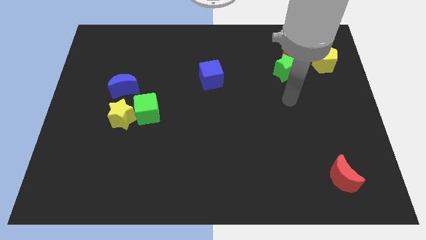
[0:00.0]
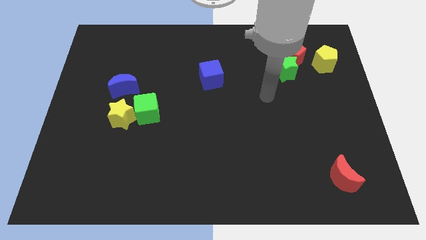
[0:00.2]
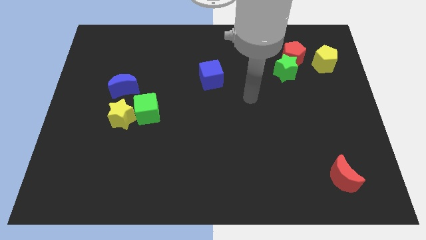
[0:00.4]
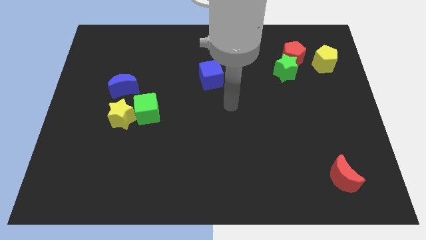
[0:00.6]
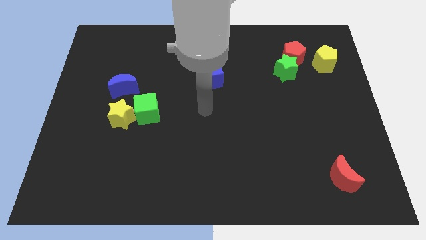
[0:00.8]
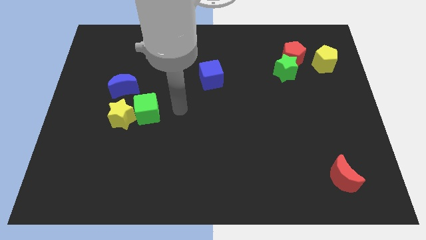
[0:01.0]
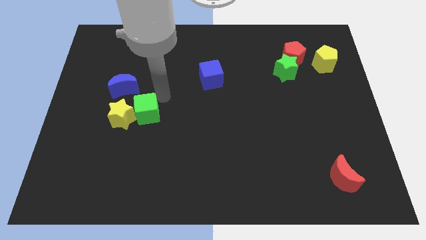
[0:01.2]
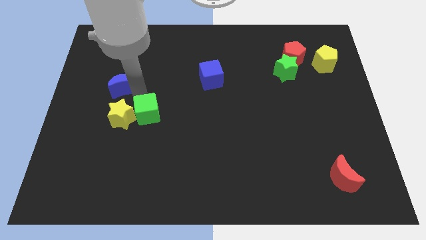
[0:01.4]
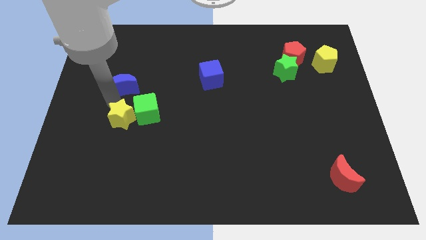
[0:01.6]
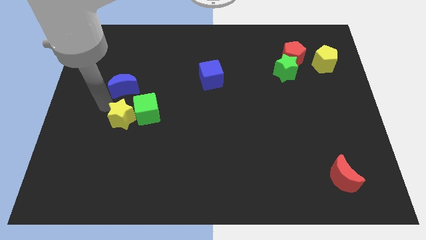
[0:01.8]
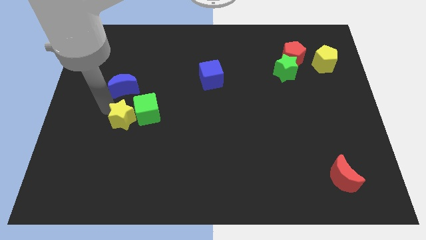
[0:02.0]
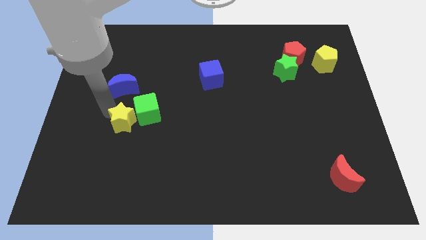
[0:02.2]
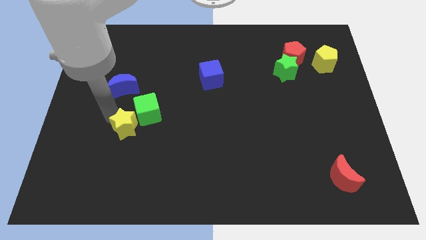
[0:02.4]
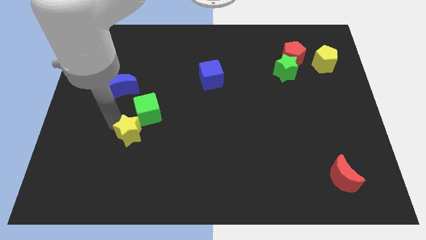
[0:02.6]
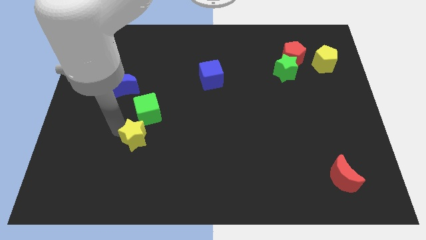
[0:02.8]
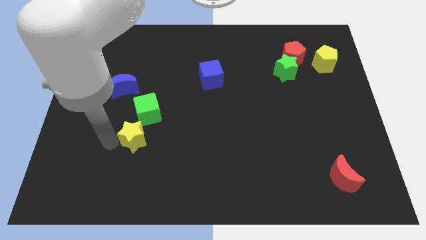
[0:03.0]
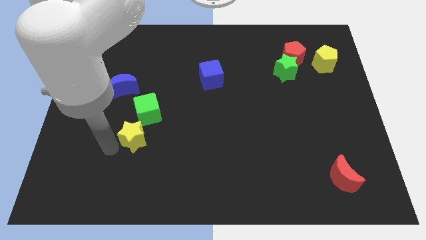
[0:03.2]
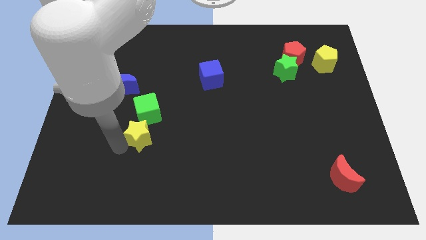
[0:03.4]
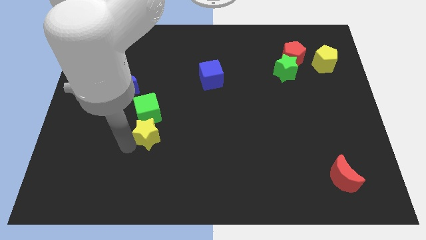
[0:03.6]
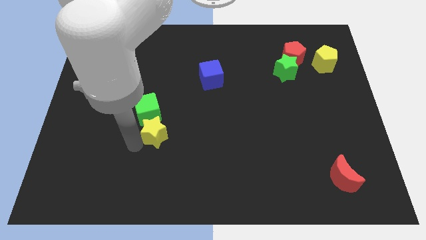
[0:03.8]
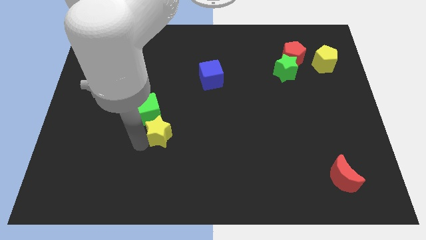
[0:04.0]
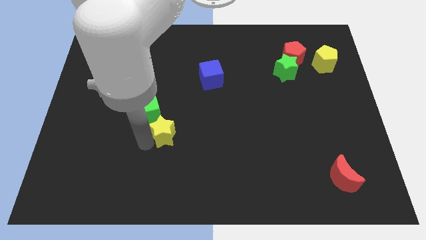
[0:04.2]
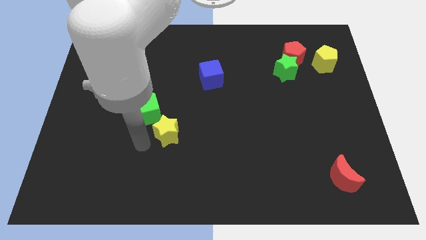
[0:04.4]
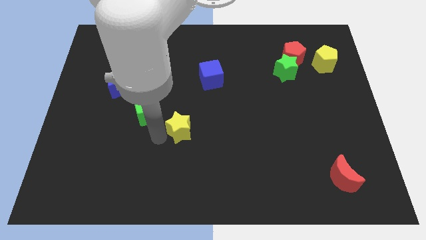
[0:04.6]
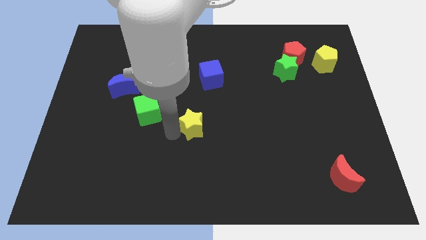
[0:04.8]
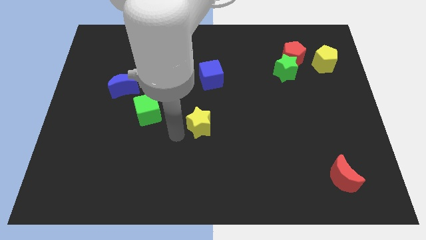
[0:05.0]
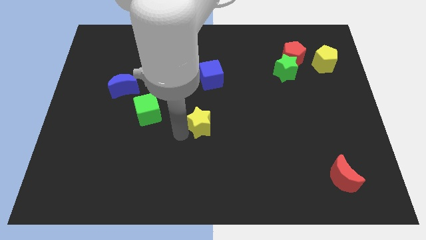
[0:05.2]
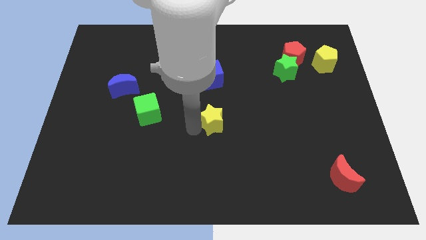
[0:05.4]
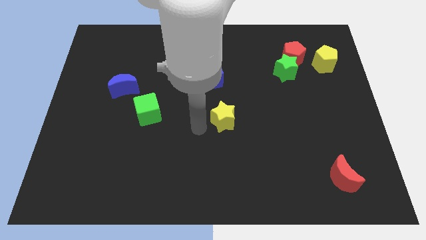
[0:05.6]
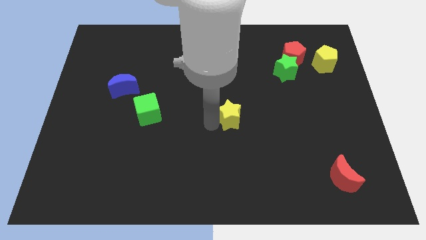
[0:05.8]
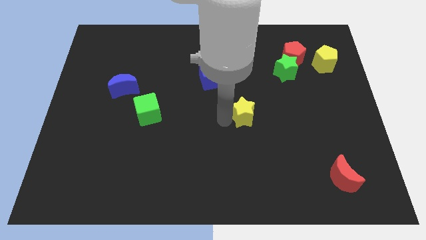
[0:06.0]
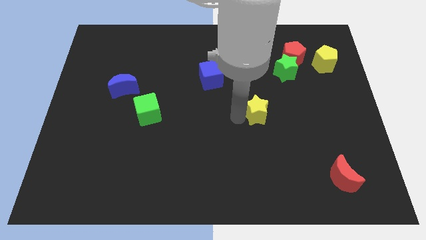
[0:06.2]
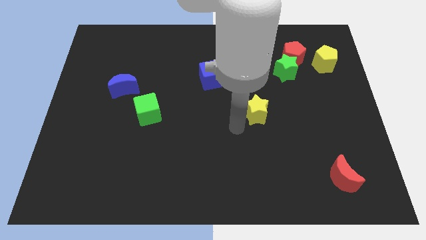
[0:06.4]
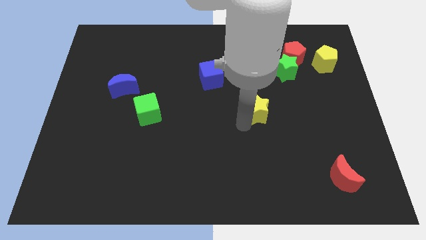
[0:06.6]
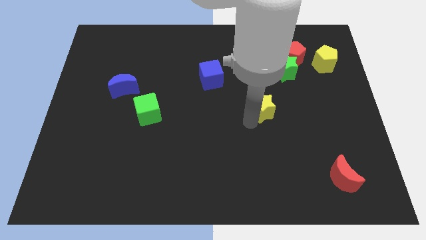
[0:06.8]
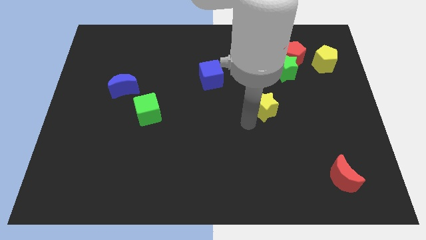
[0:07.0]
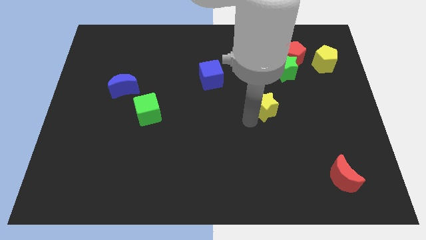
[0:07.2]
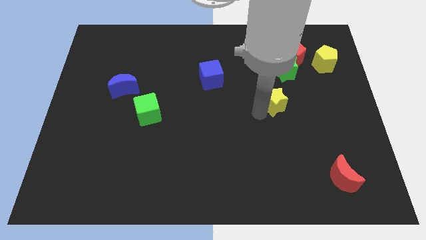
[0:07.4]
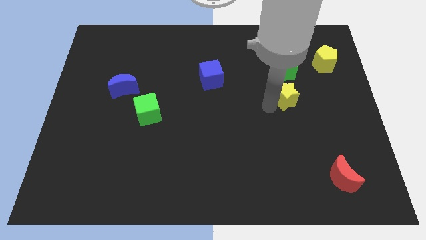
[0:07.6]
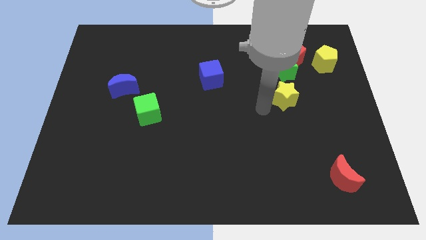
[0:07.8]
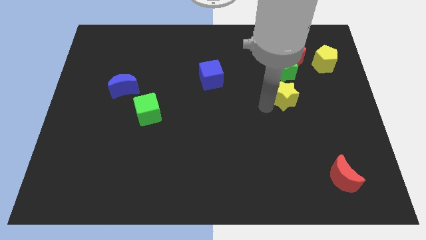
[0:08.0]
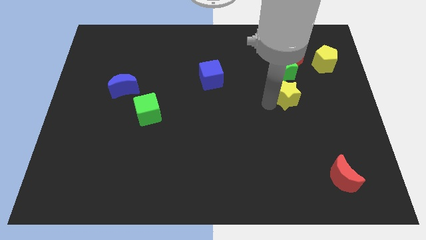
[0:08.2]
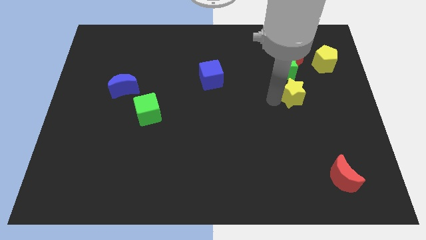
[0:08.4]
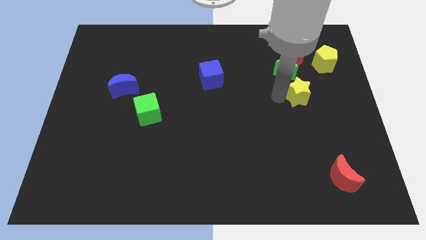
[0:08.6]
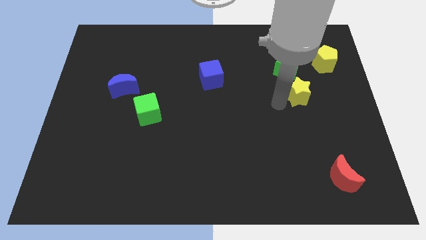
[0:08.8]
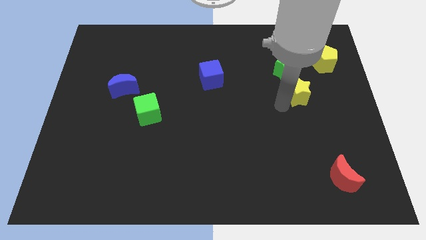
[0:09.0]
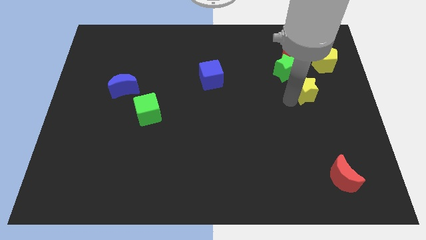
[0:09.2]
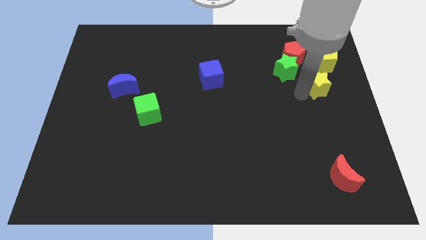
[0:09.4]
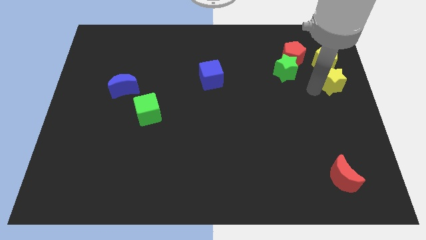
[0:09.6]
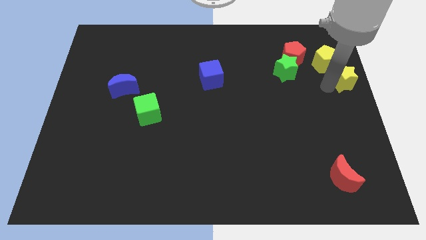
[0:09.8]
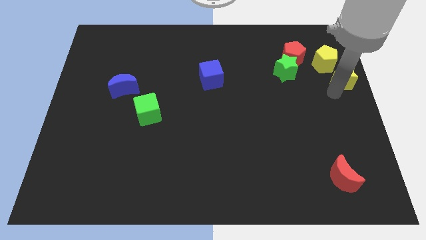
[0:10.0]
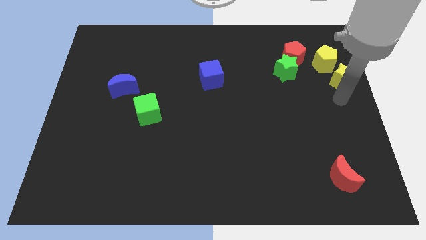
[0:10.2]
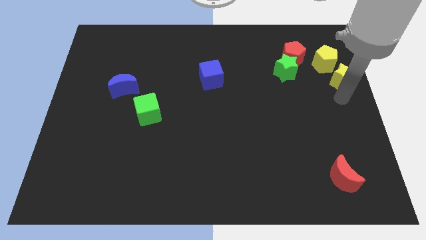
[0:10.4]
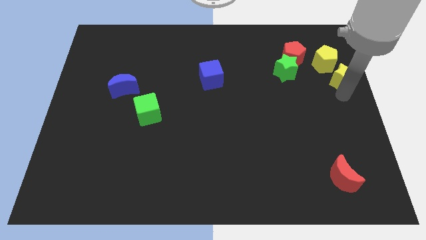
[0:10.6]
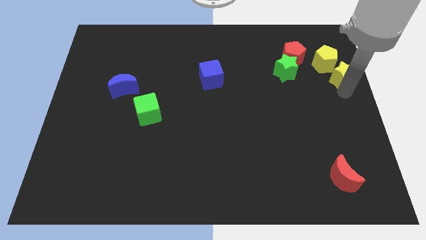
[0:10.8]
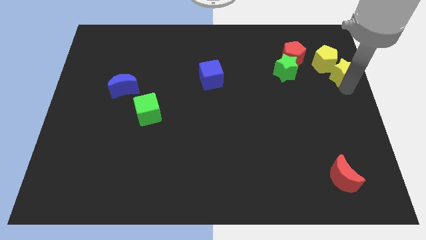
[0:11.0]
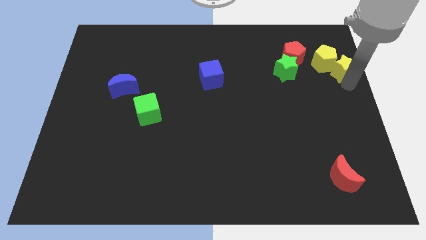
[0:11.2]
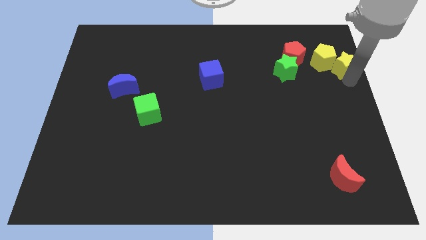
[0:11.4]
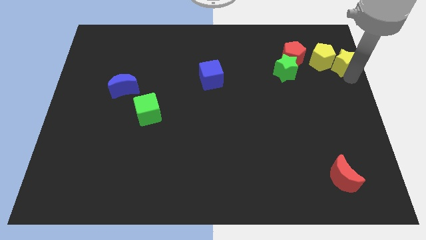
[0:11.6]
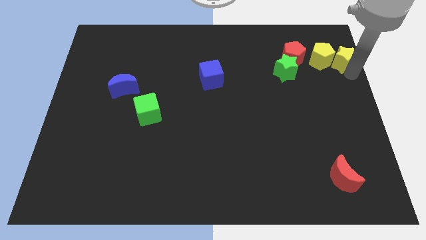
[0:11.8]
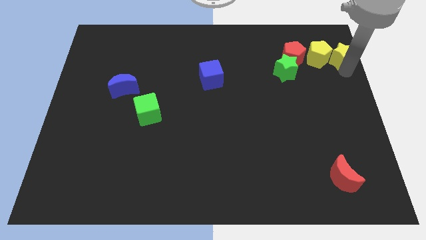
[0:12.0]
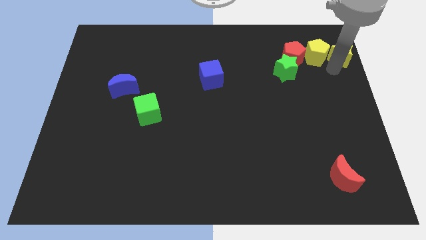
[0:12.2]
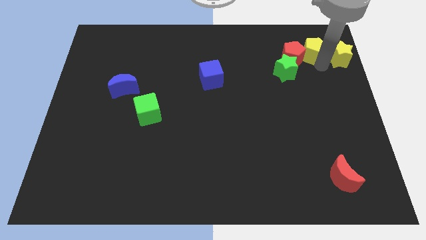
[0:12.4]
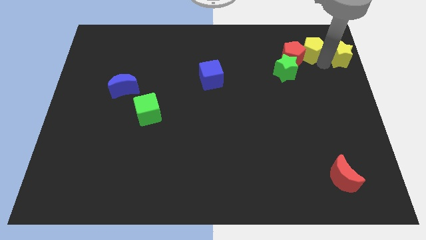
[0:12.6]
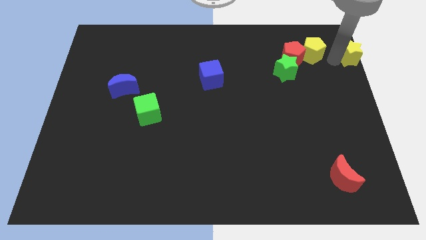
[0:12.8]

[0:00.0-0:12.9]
move the yellow star to the upper right corner
